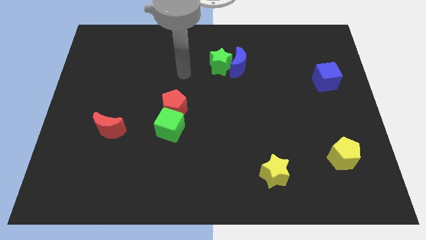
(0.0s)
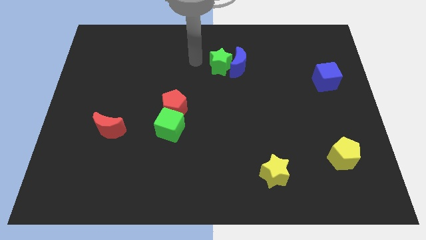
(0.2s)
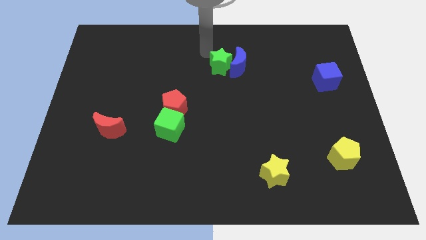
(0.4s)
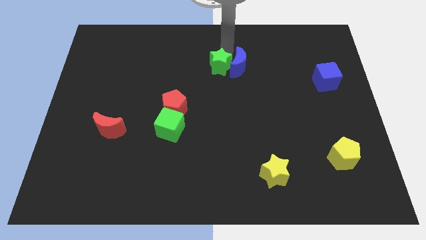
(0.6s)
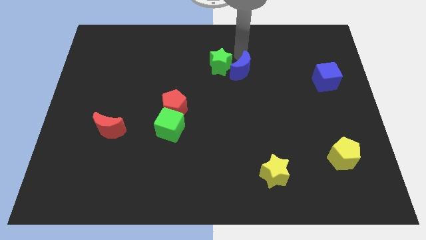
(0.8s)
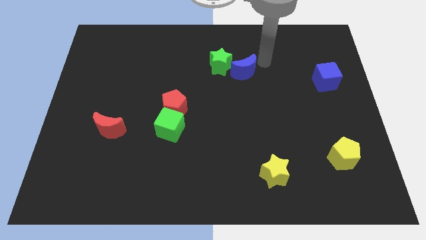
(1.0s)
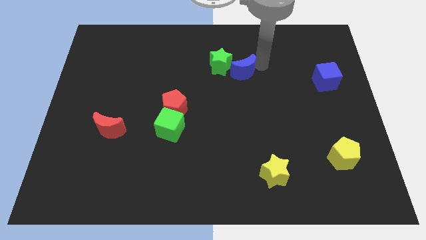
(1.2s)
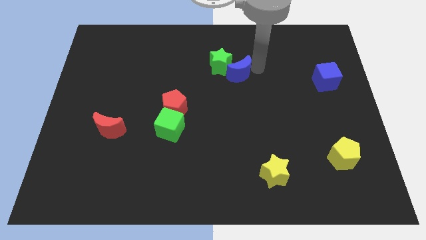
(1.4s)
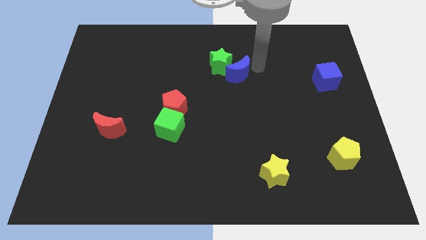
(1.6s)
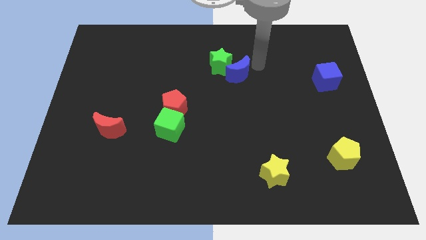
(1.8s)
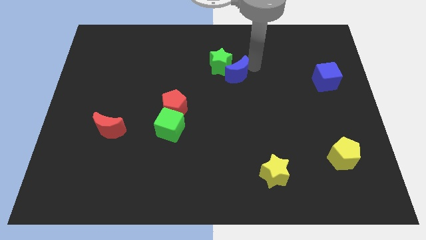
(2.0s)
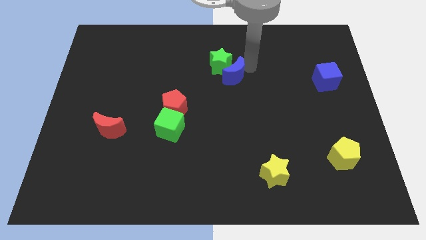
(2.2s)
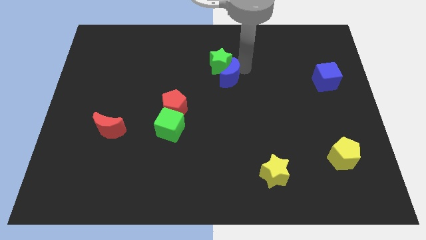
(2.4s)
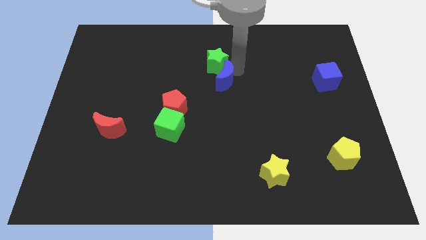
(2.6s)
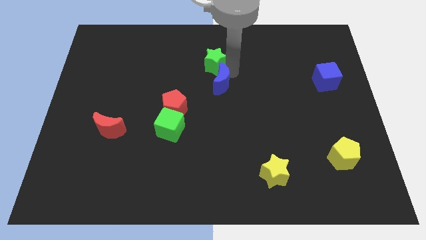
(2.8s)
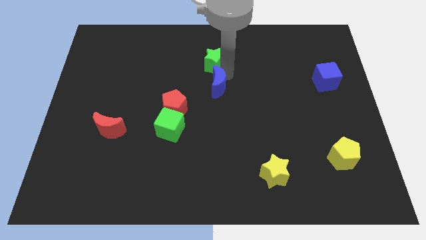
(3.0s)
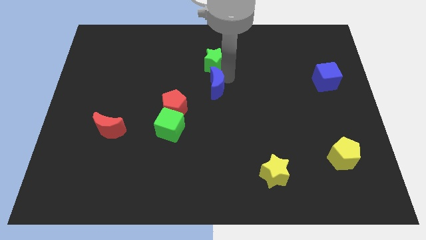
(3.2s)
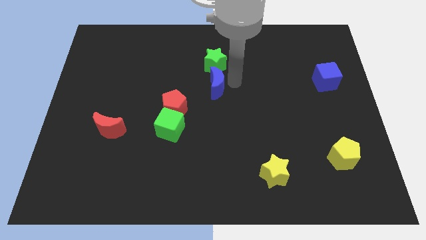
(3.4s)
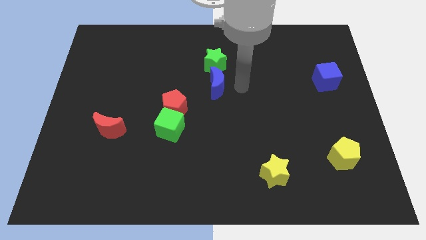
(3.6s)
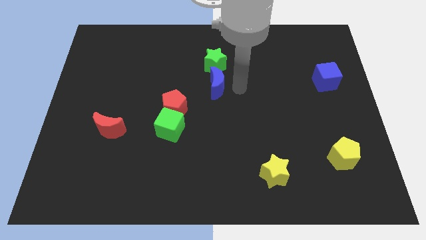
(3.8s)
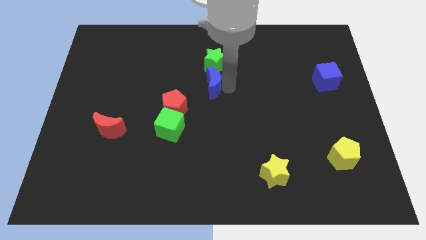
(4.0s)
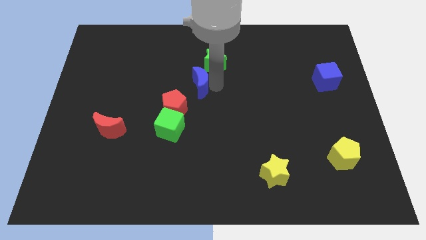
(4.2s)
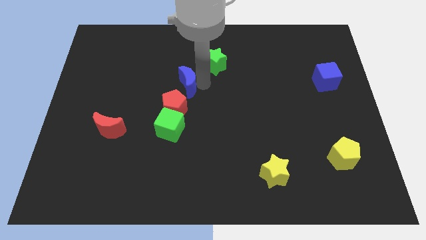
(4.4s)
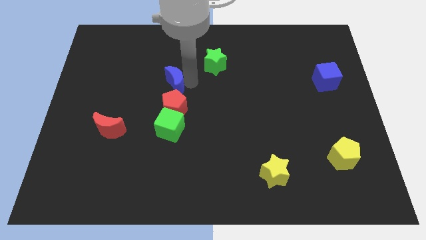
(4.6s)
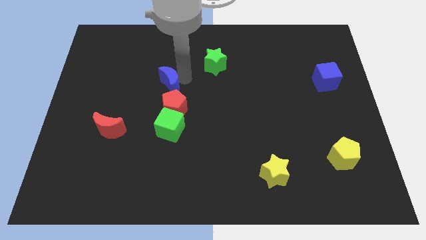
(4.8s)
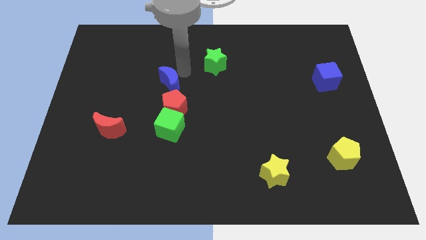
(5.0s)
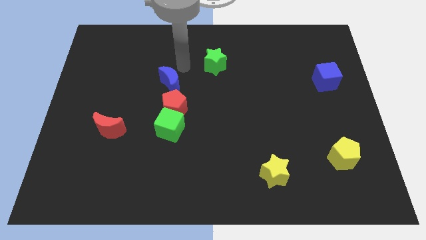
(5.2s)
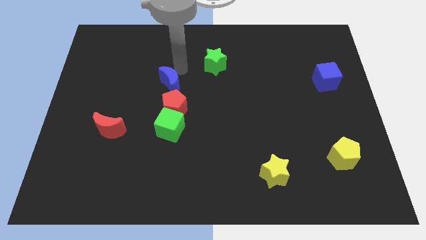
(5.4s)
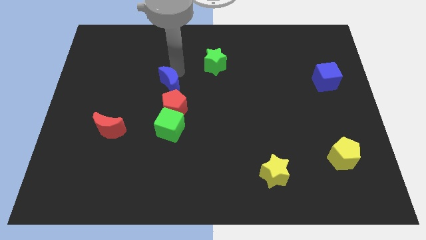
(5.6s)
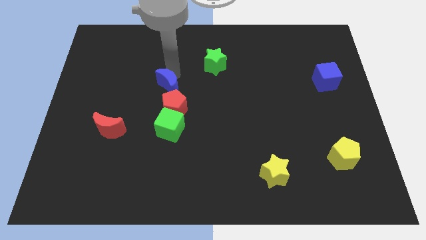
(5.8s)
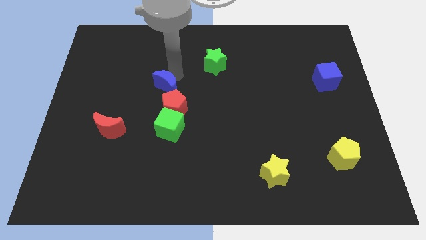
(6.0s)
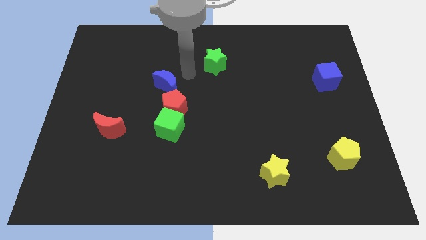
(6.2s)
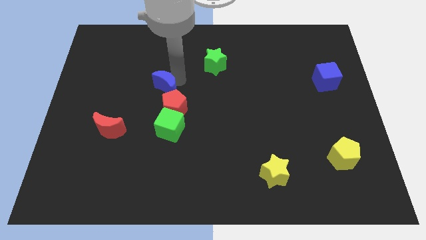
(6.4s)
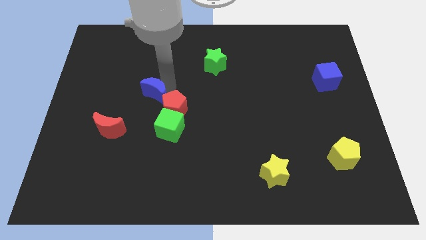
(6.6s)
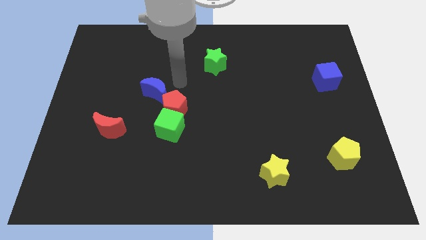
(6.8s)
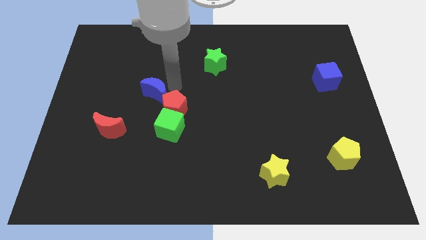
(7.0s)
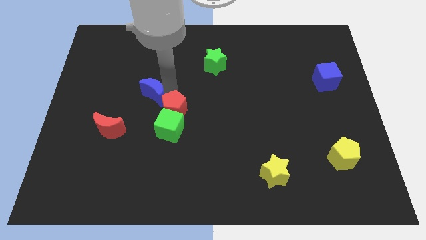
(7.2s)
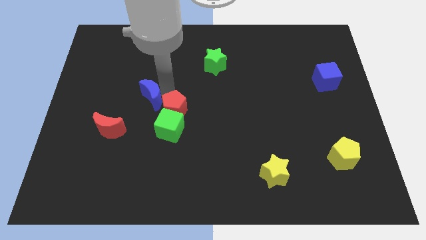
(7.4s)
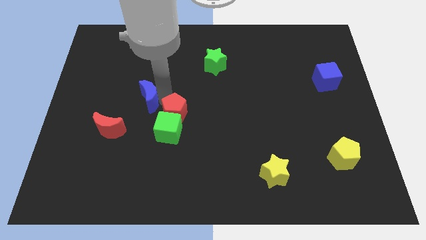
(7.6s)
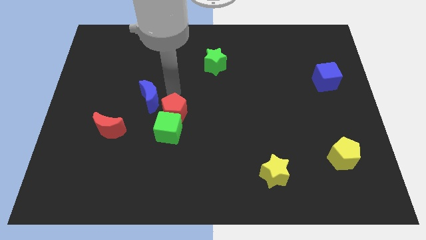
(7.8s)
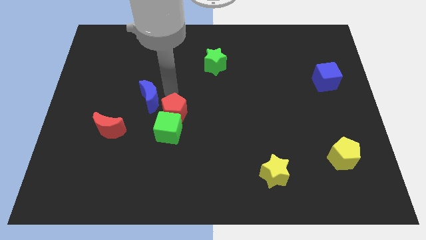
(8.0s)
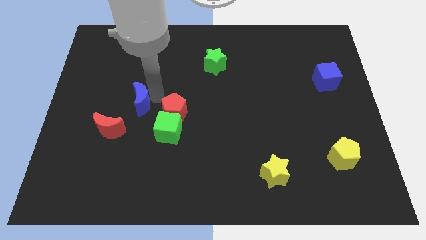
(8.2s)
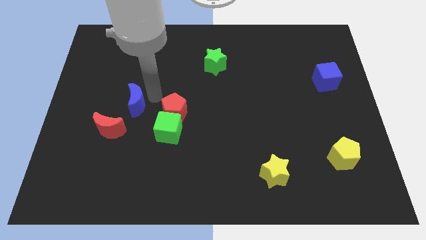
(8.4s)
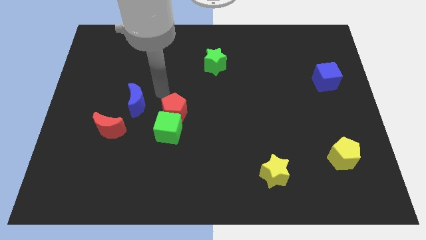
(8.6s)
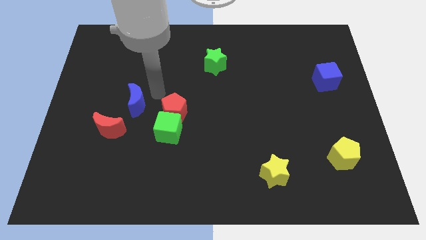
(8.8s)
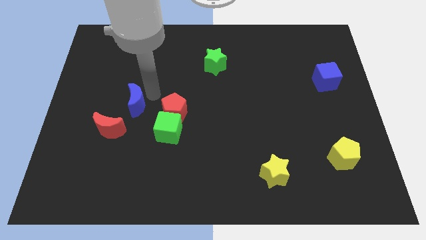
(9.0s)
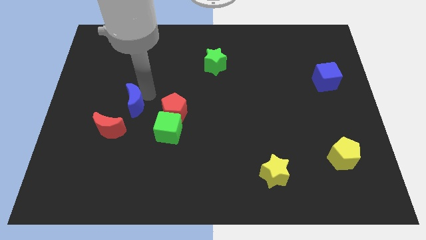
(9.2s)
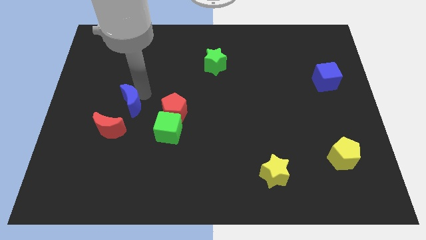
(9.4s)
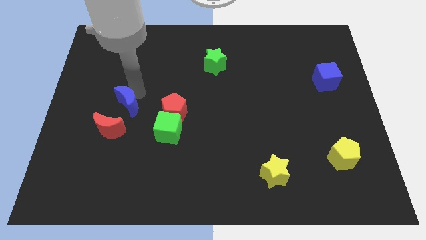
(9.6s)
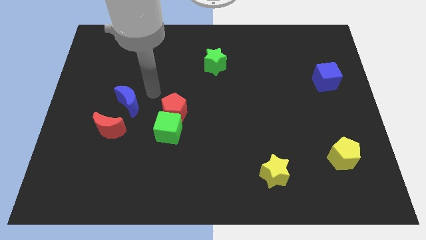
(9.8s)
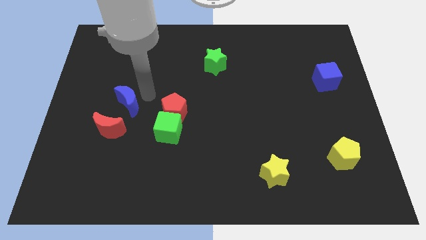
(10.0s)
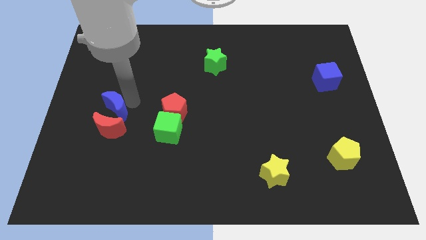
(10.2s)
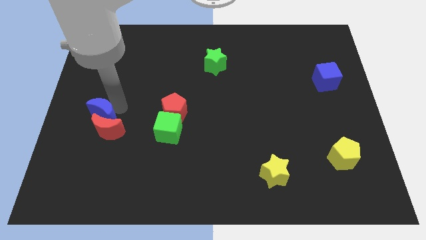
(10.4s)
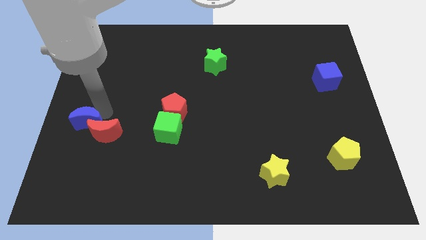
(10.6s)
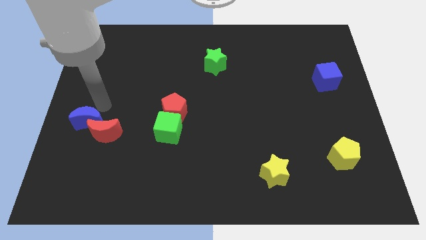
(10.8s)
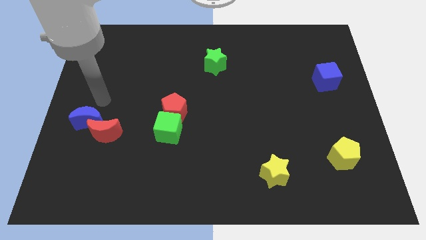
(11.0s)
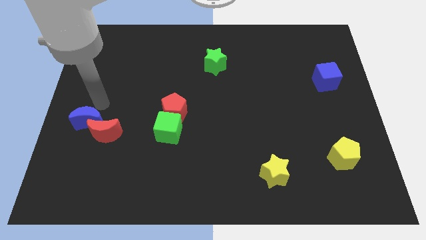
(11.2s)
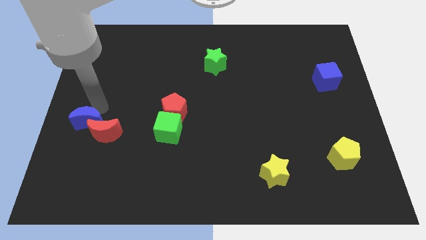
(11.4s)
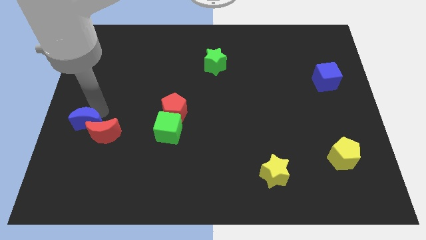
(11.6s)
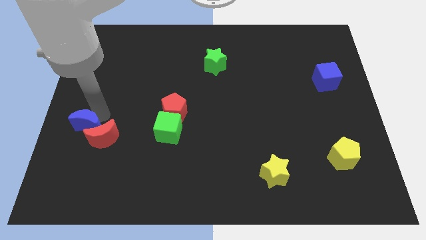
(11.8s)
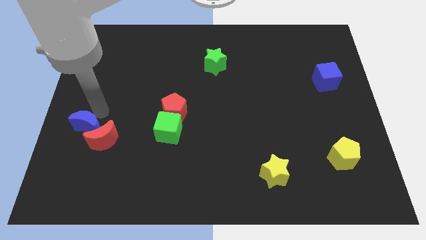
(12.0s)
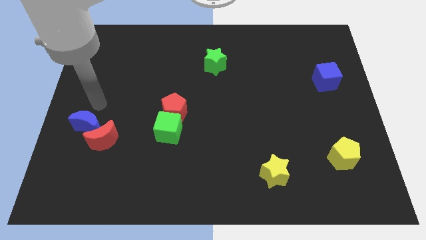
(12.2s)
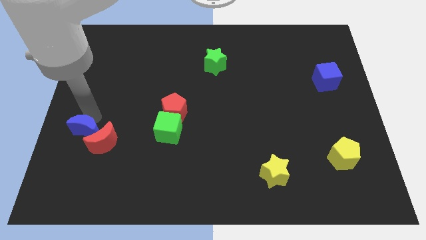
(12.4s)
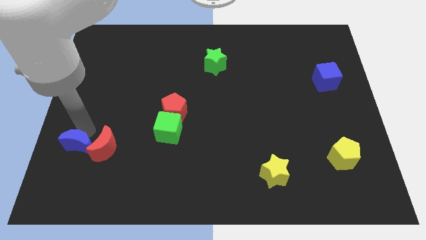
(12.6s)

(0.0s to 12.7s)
push the blue moon to the bottom left side of the red moon
